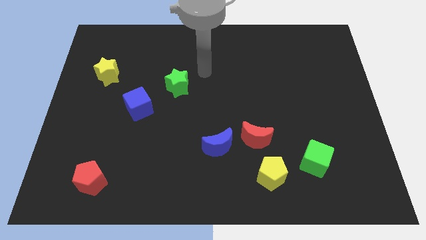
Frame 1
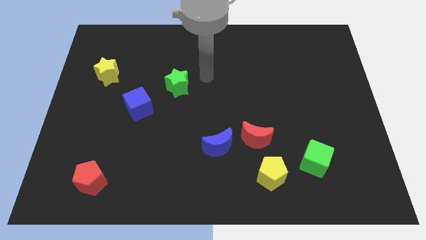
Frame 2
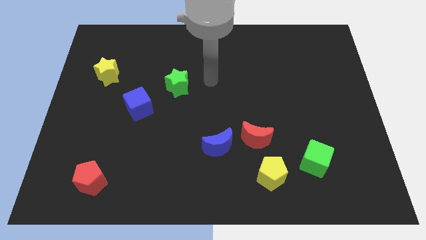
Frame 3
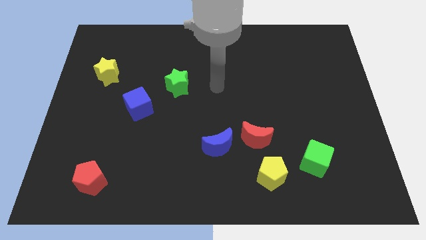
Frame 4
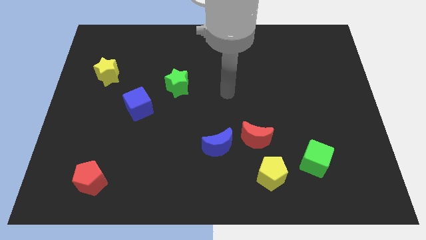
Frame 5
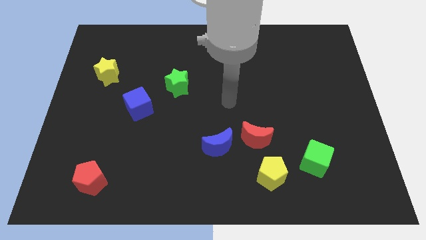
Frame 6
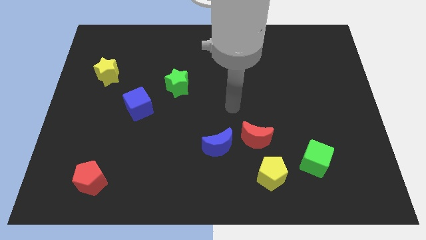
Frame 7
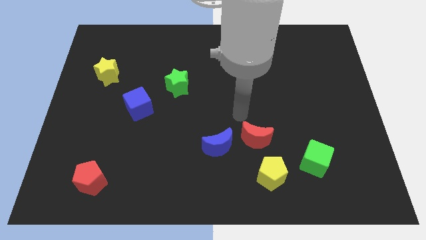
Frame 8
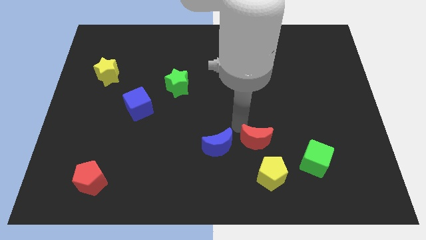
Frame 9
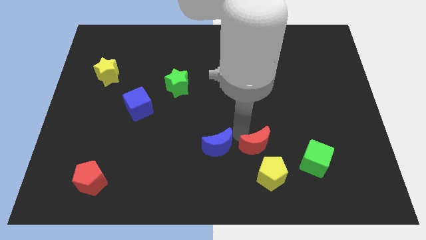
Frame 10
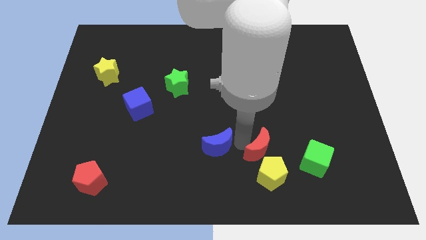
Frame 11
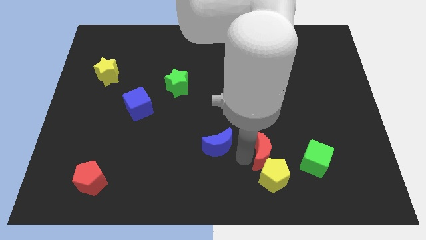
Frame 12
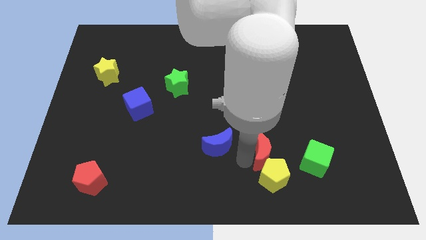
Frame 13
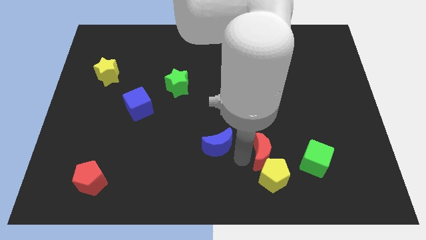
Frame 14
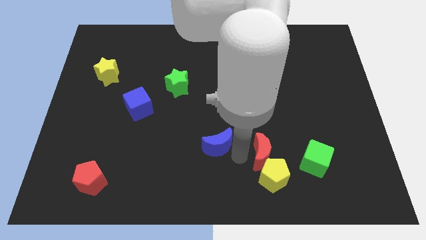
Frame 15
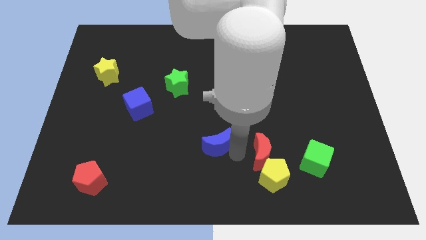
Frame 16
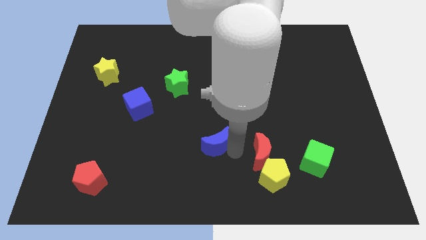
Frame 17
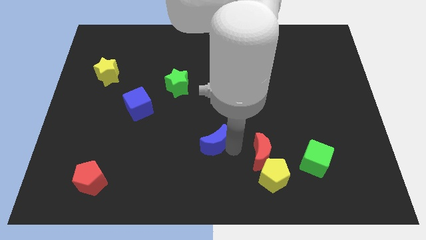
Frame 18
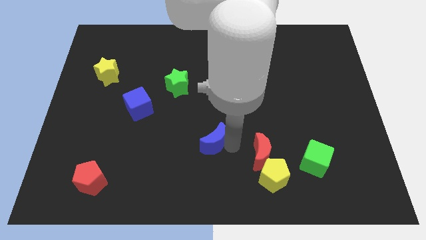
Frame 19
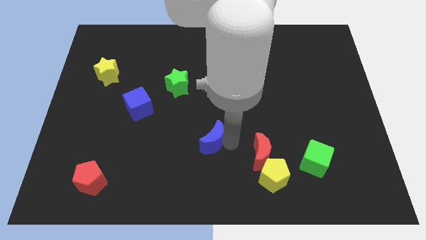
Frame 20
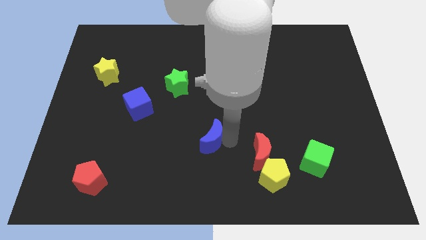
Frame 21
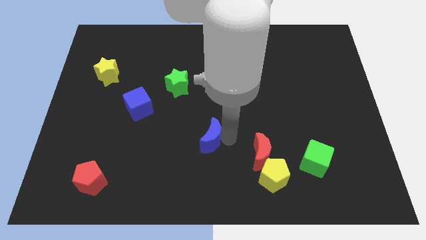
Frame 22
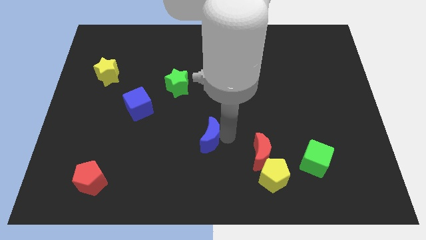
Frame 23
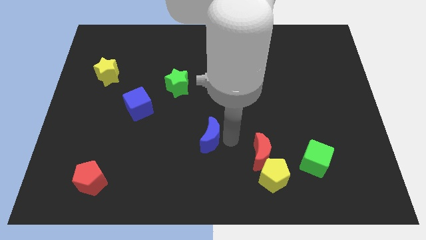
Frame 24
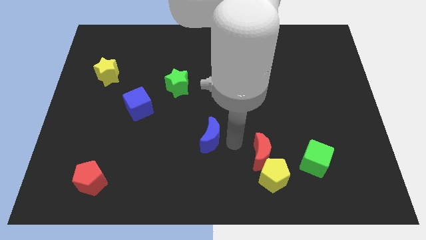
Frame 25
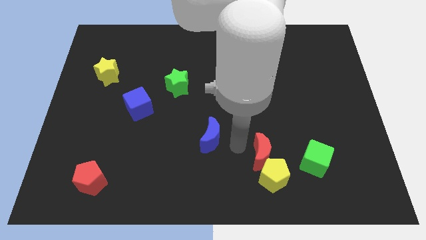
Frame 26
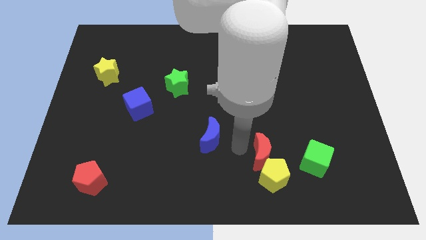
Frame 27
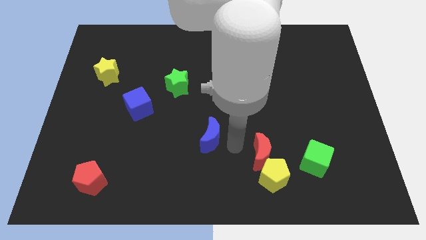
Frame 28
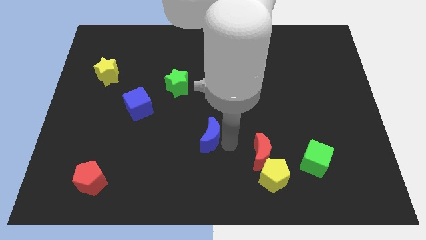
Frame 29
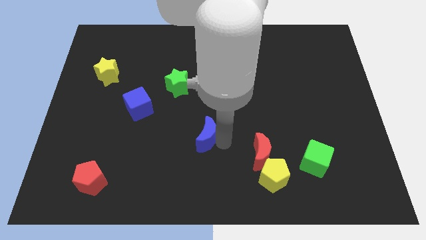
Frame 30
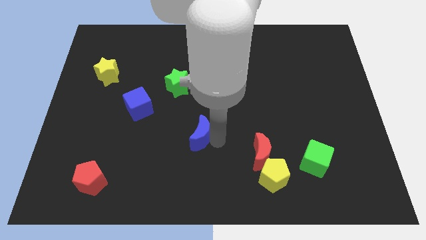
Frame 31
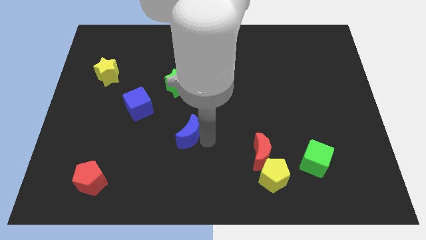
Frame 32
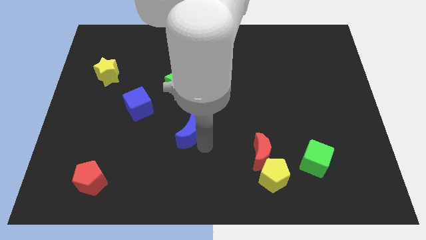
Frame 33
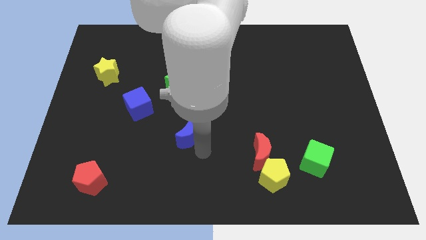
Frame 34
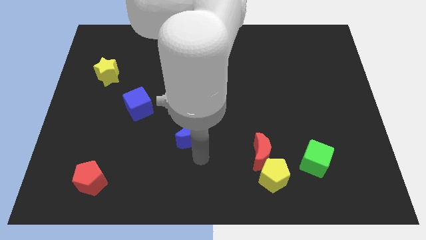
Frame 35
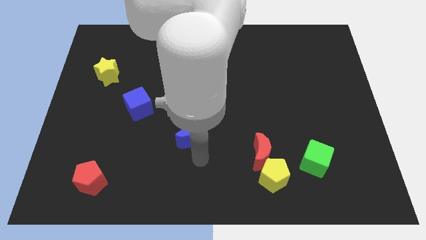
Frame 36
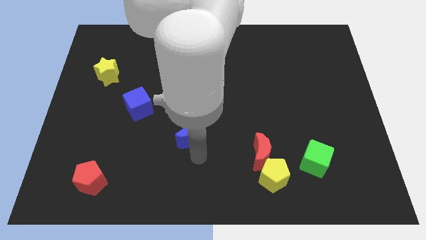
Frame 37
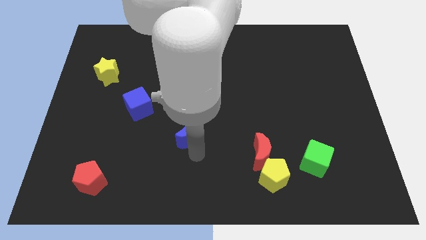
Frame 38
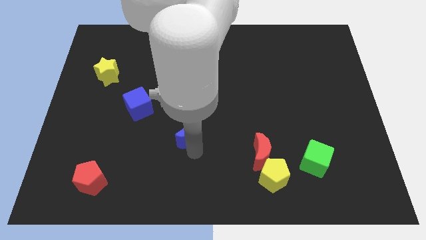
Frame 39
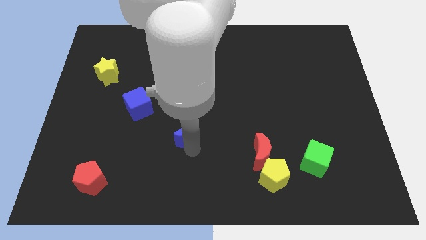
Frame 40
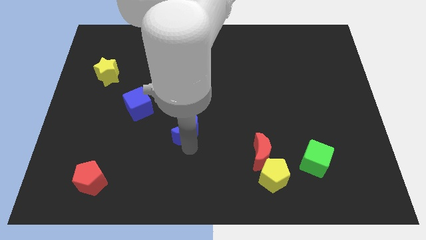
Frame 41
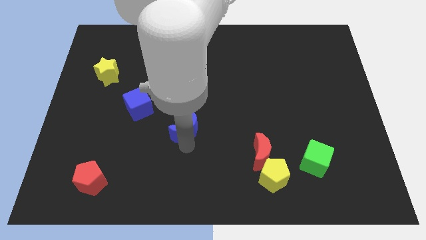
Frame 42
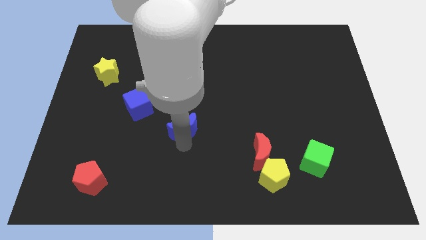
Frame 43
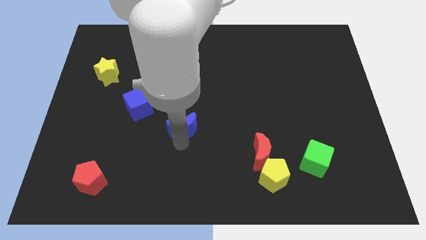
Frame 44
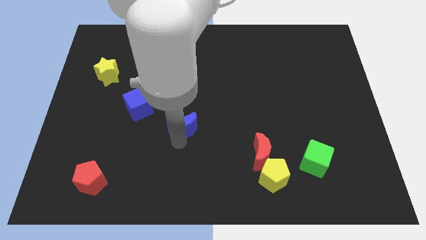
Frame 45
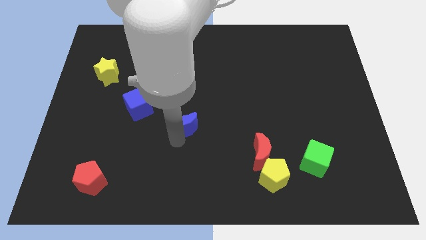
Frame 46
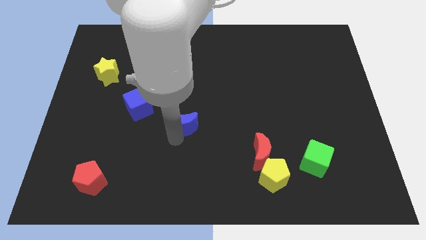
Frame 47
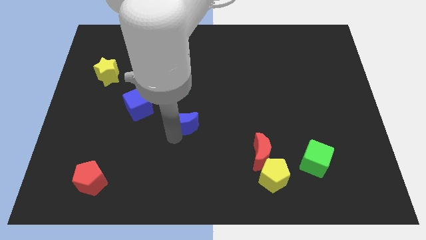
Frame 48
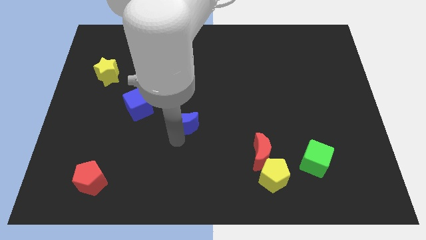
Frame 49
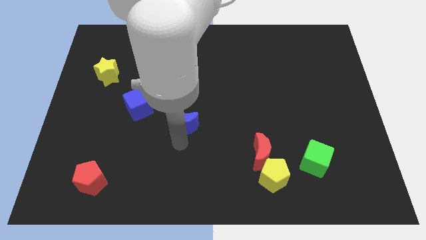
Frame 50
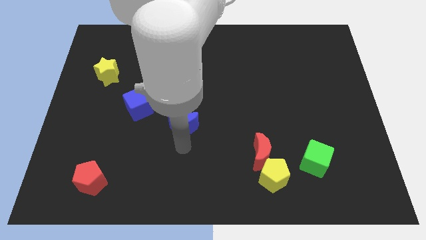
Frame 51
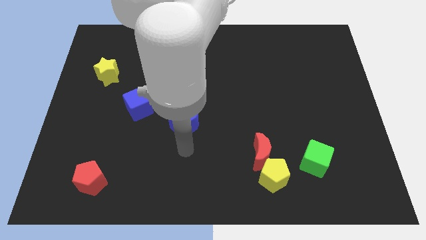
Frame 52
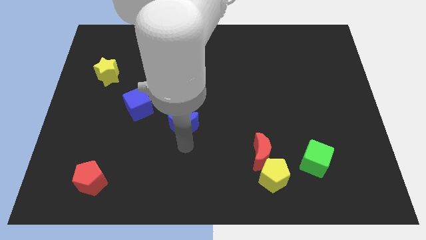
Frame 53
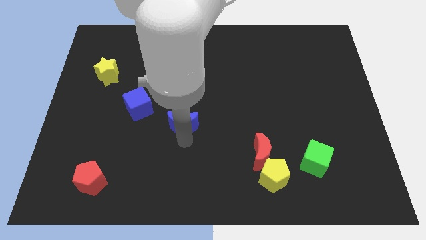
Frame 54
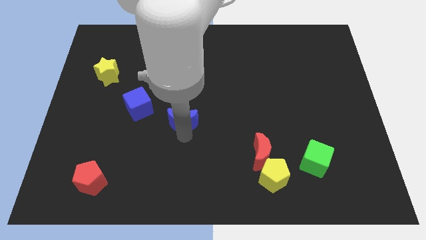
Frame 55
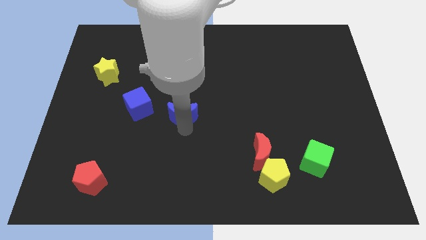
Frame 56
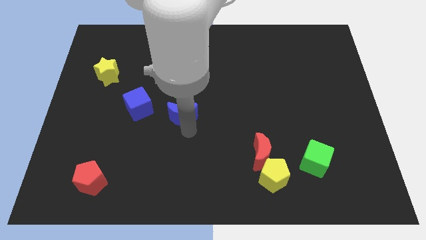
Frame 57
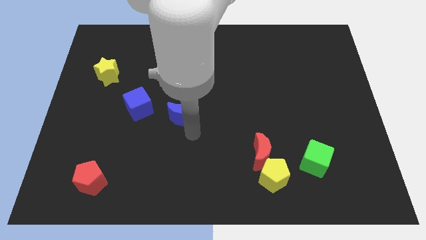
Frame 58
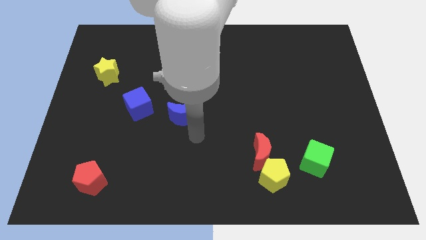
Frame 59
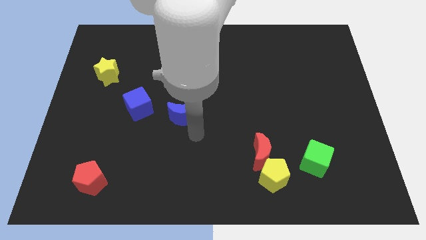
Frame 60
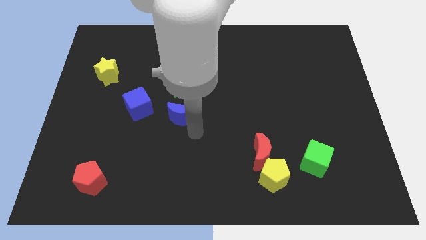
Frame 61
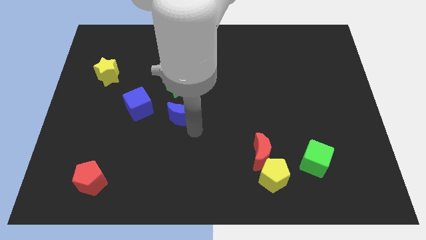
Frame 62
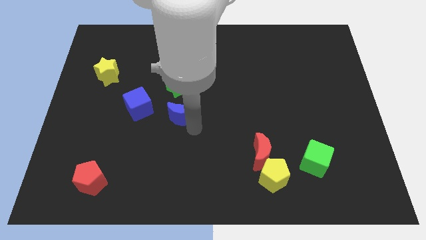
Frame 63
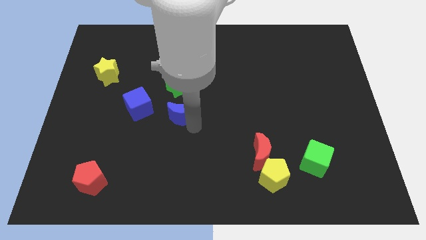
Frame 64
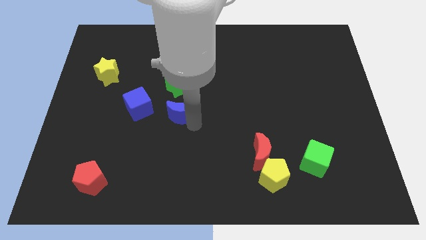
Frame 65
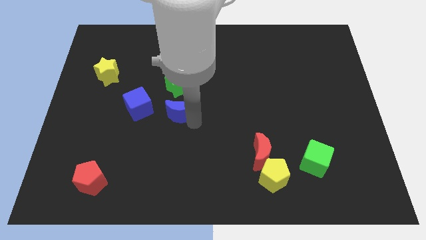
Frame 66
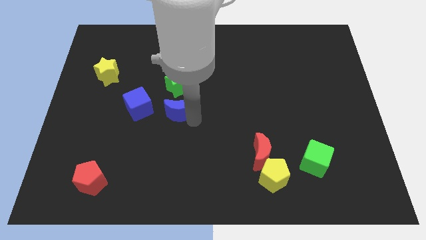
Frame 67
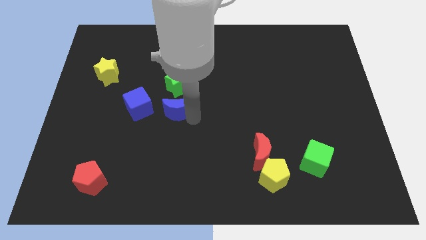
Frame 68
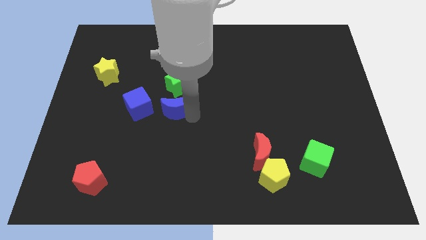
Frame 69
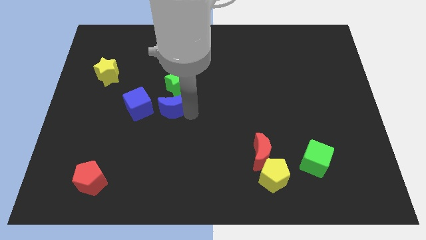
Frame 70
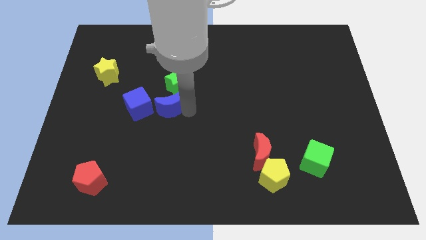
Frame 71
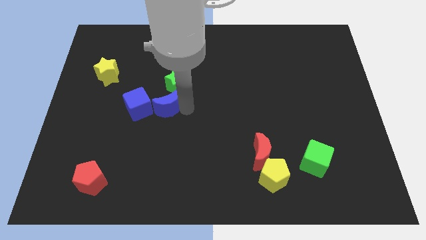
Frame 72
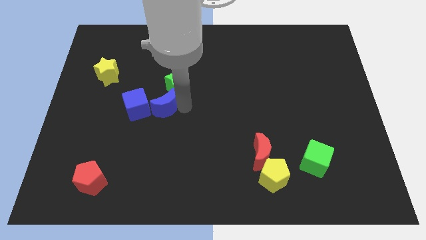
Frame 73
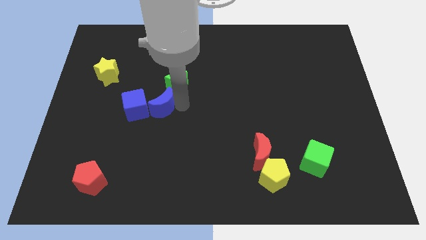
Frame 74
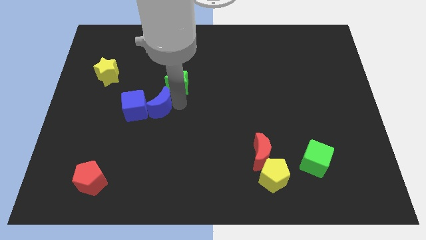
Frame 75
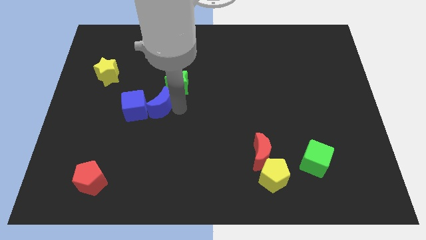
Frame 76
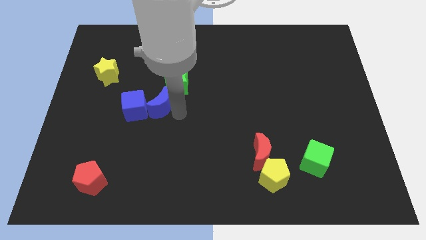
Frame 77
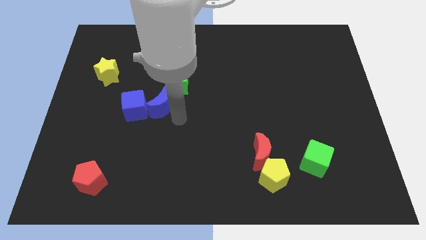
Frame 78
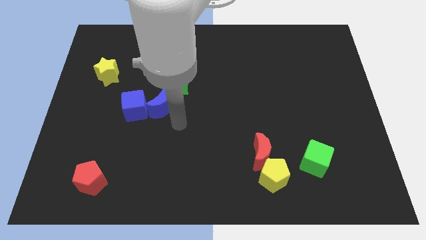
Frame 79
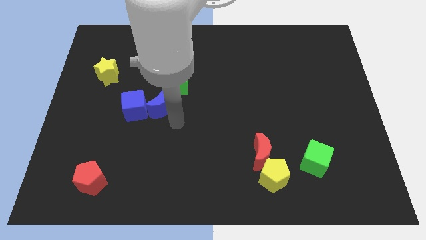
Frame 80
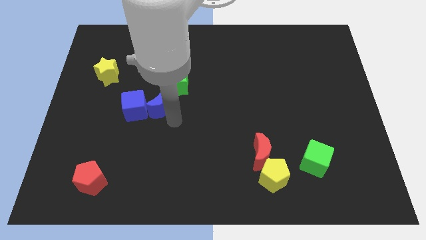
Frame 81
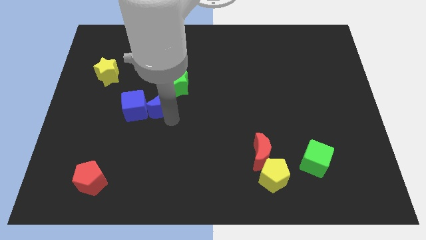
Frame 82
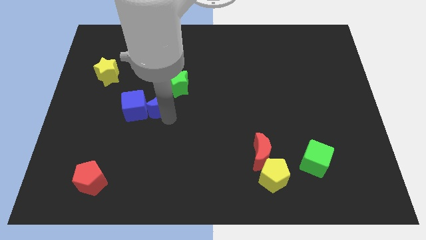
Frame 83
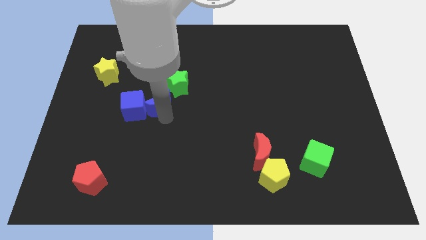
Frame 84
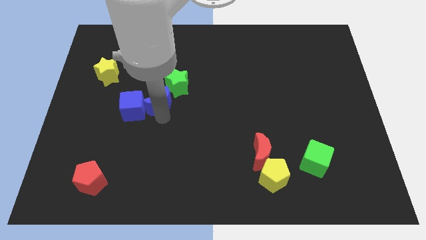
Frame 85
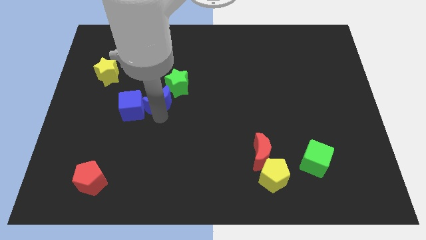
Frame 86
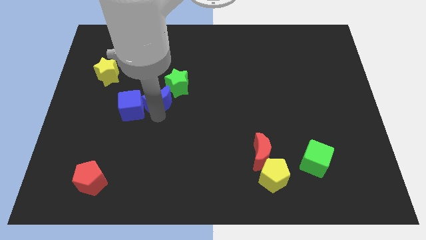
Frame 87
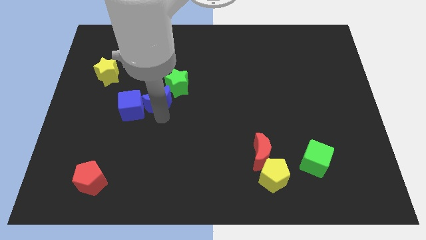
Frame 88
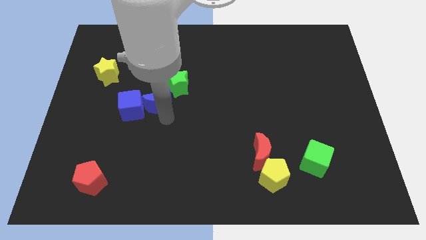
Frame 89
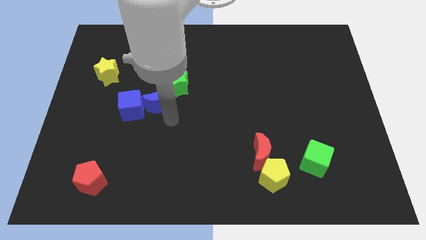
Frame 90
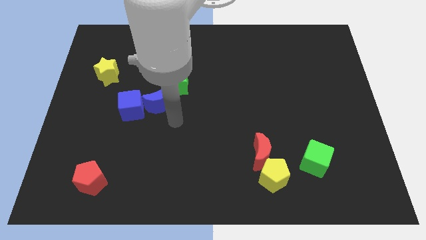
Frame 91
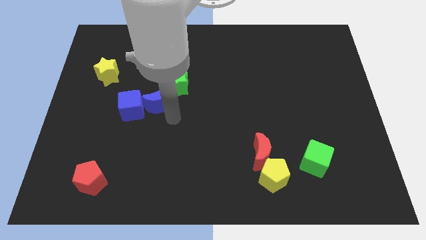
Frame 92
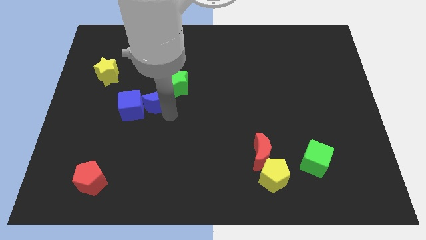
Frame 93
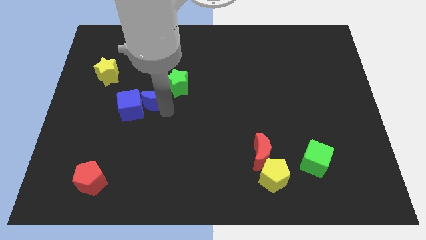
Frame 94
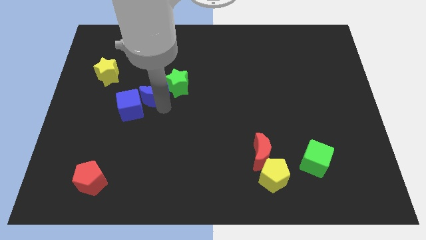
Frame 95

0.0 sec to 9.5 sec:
slide the blue moon up and then to the left
